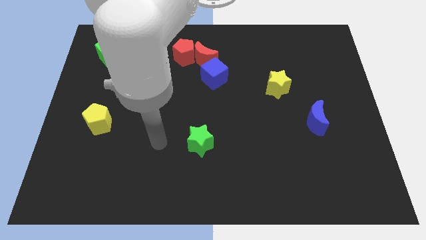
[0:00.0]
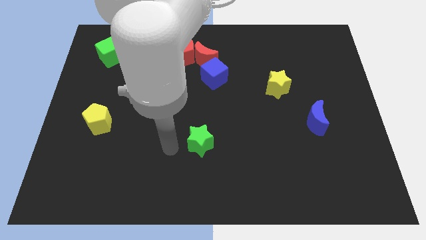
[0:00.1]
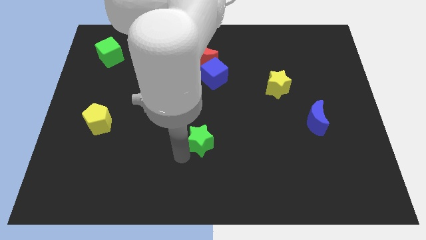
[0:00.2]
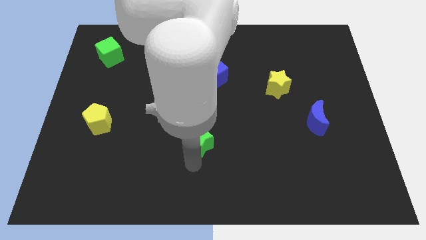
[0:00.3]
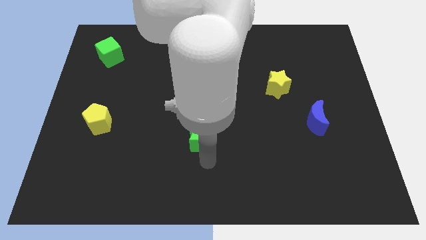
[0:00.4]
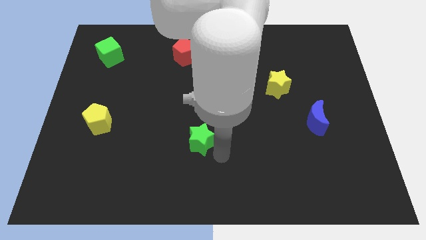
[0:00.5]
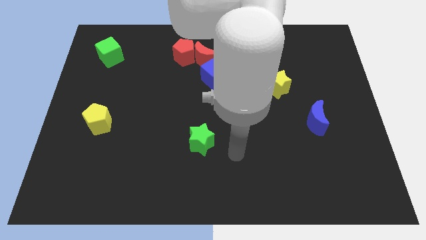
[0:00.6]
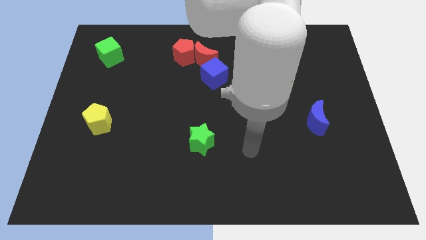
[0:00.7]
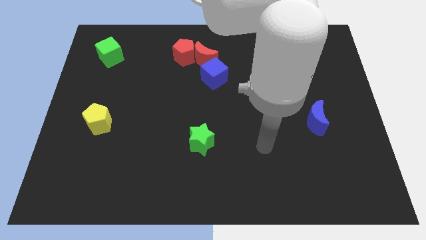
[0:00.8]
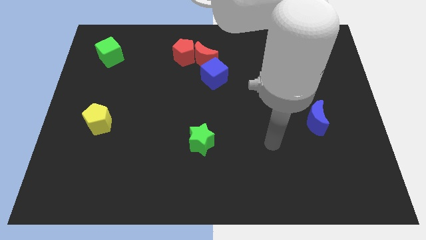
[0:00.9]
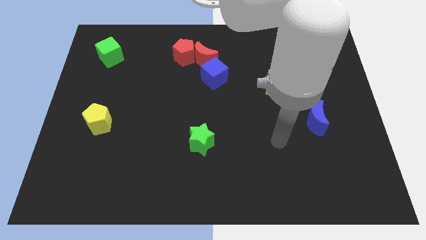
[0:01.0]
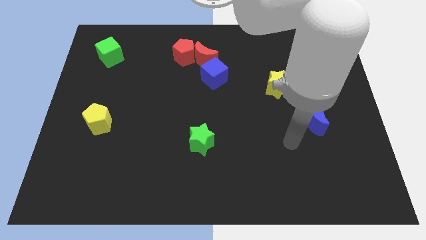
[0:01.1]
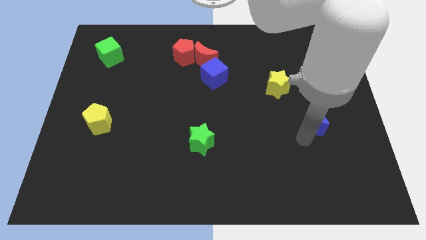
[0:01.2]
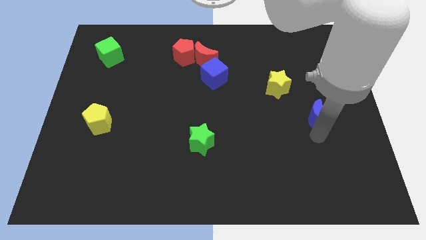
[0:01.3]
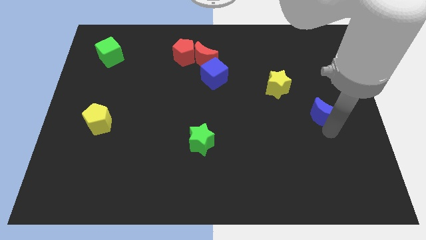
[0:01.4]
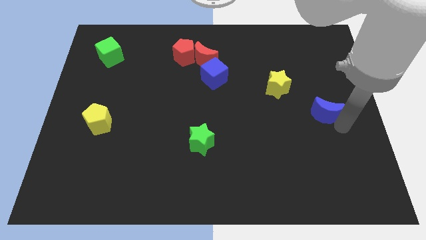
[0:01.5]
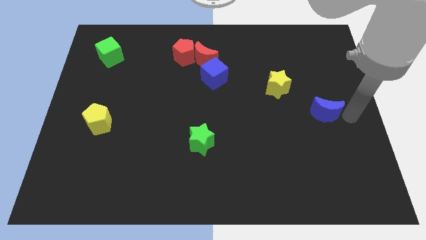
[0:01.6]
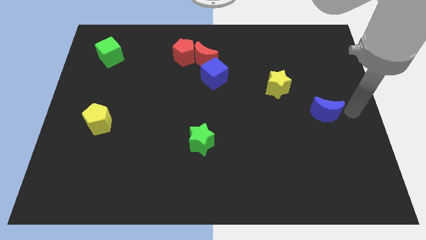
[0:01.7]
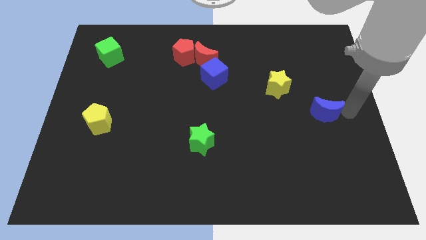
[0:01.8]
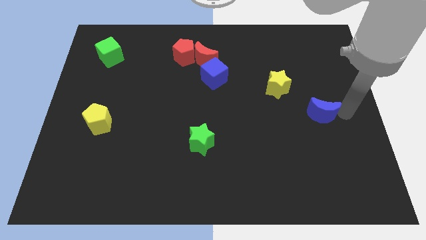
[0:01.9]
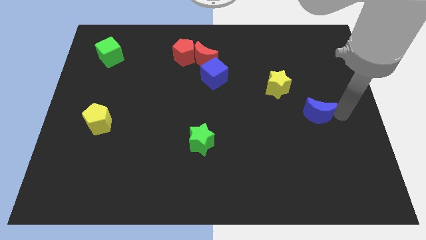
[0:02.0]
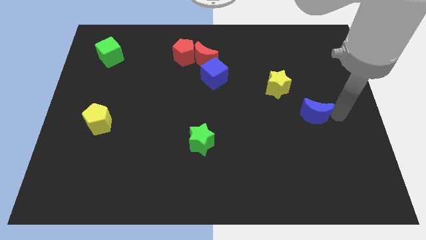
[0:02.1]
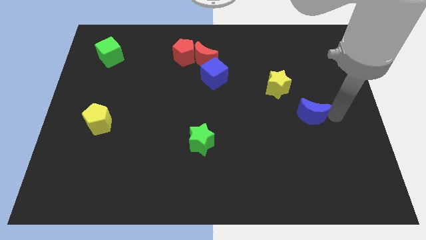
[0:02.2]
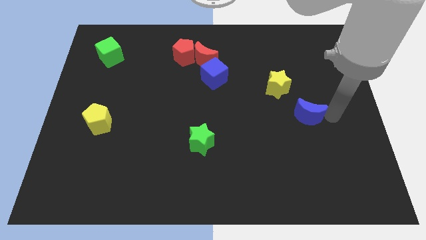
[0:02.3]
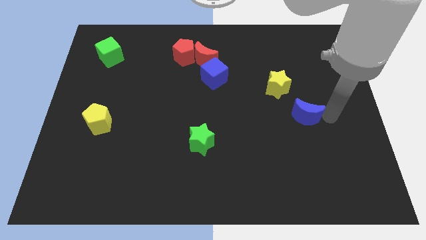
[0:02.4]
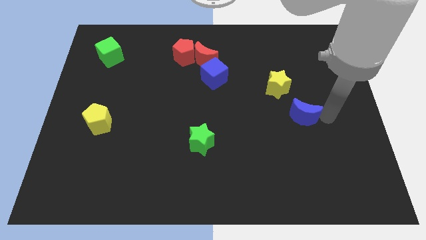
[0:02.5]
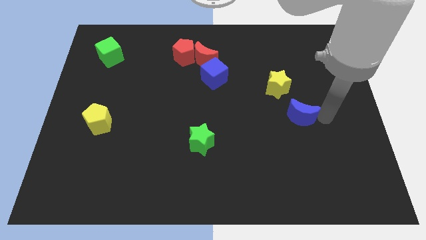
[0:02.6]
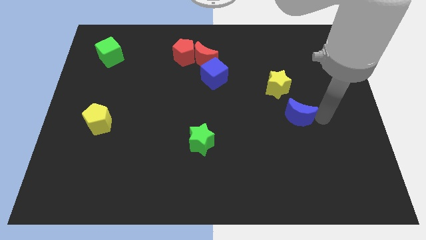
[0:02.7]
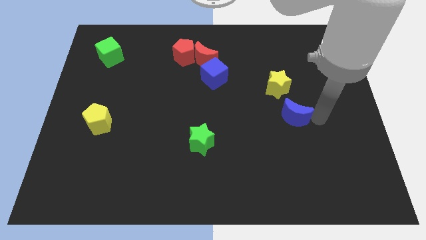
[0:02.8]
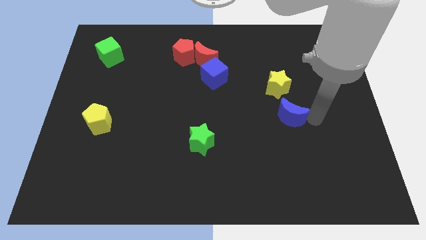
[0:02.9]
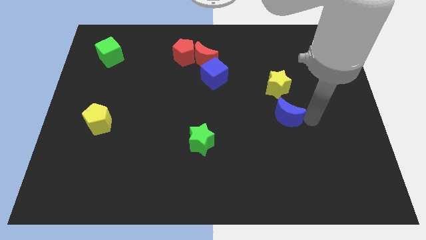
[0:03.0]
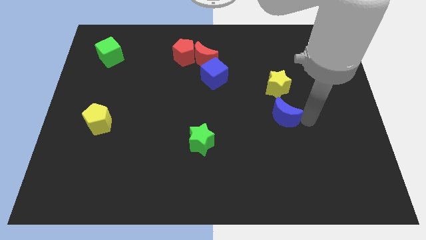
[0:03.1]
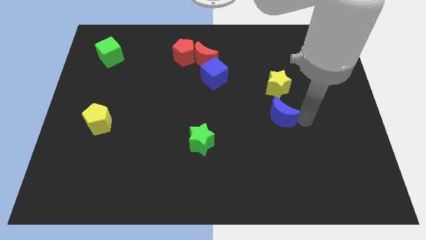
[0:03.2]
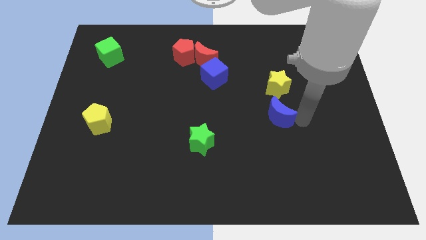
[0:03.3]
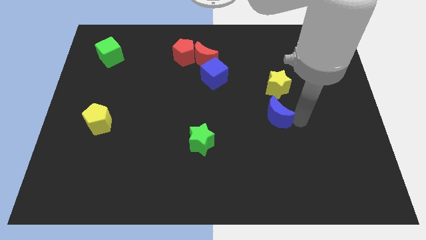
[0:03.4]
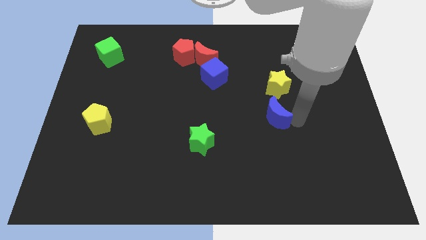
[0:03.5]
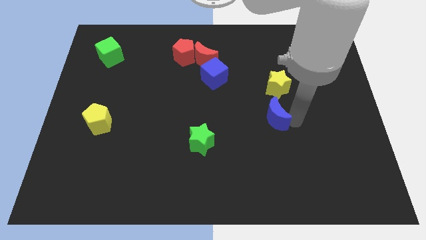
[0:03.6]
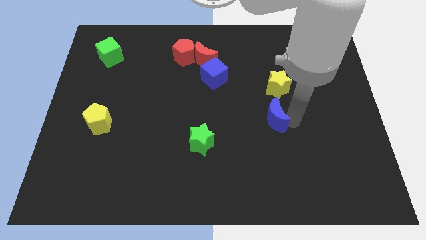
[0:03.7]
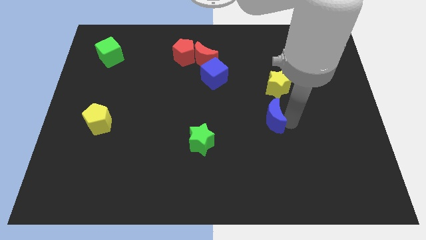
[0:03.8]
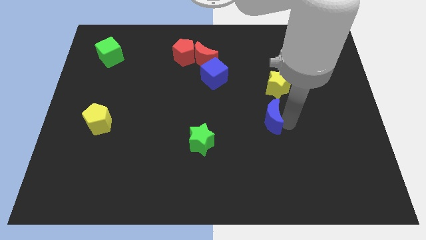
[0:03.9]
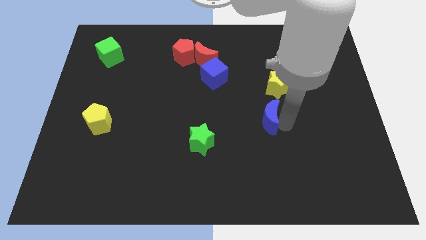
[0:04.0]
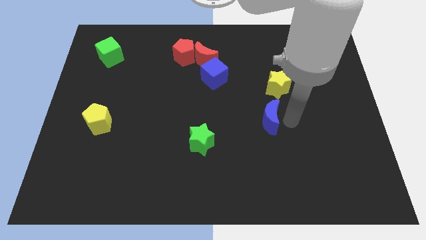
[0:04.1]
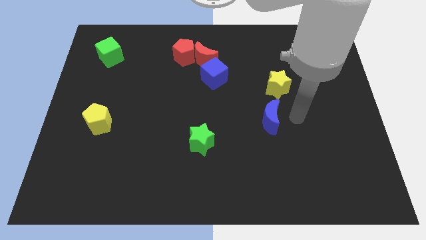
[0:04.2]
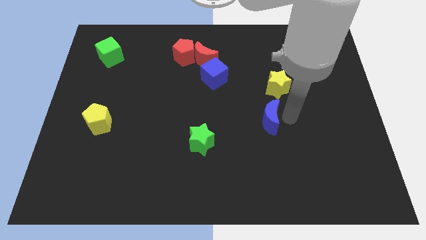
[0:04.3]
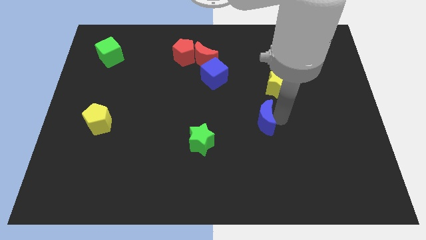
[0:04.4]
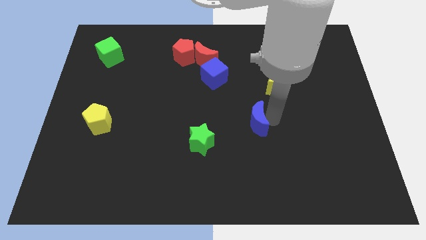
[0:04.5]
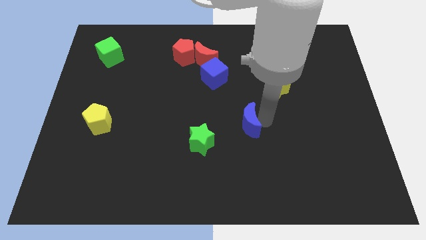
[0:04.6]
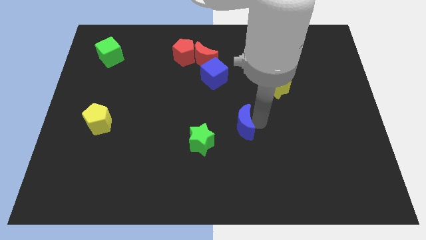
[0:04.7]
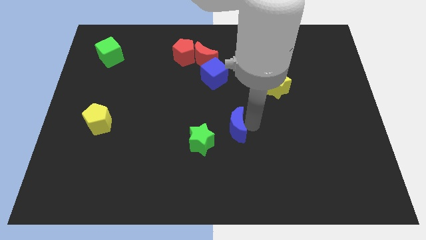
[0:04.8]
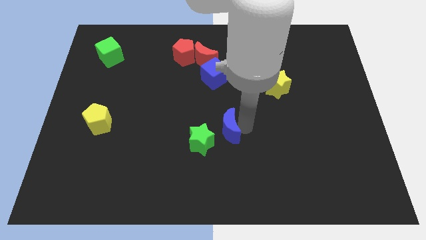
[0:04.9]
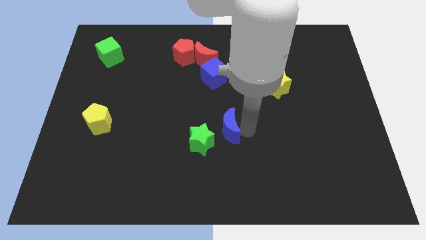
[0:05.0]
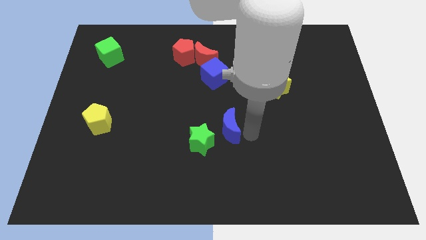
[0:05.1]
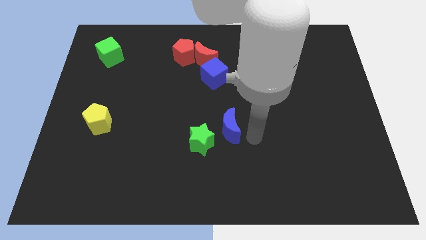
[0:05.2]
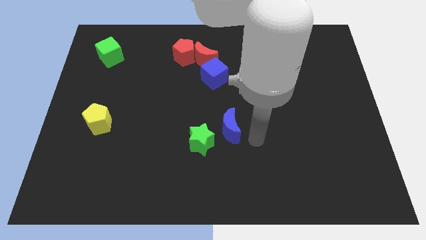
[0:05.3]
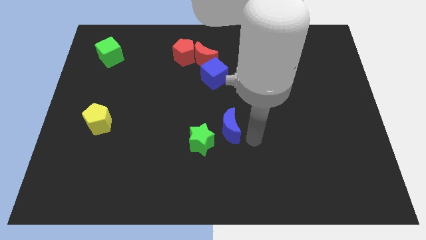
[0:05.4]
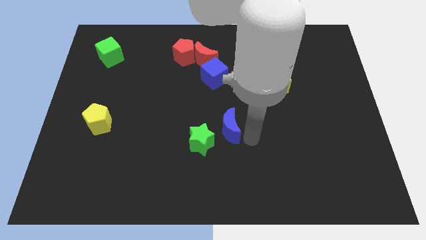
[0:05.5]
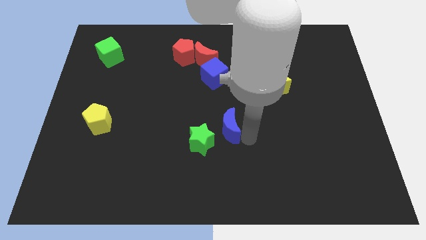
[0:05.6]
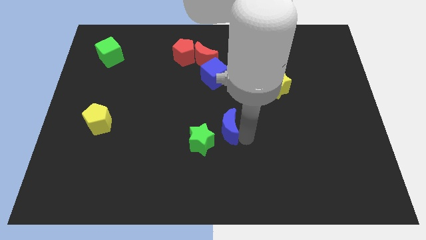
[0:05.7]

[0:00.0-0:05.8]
move the blue moon to the left

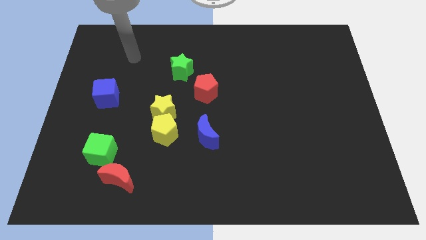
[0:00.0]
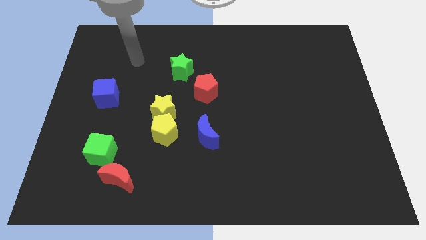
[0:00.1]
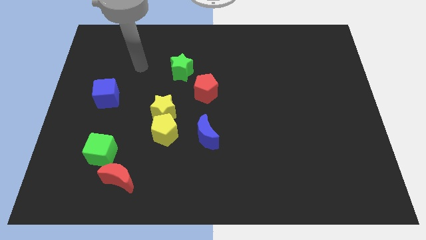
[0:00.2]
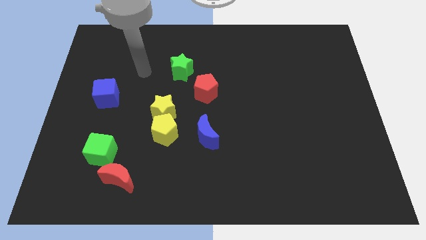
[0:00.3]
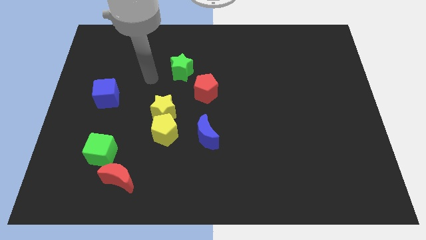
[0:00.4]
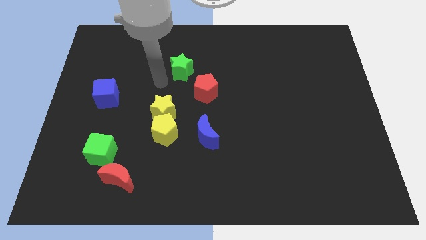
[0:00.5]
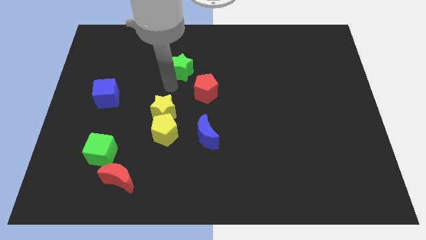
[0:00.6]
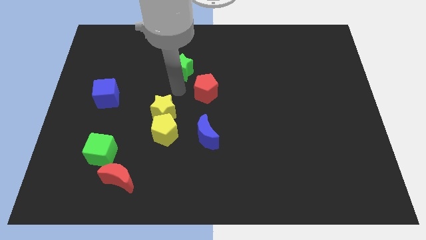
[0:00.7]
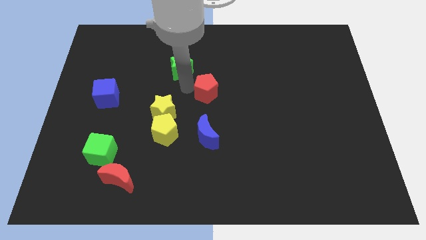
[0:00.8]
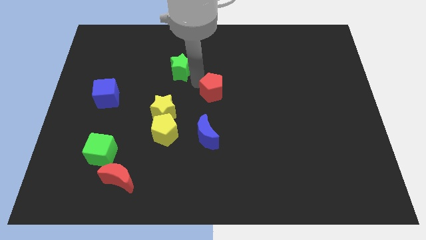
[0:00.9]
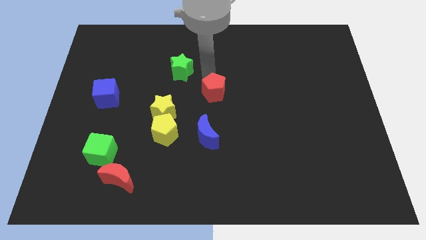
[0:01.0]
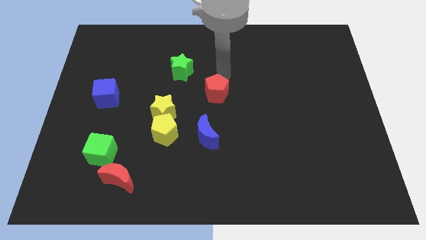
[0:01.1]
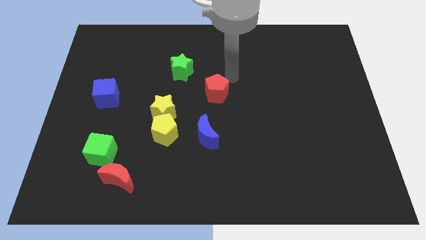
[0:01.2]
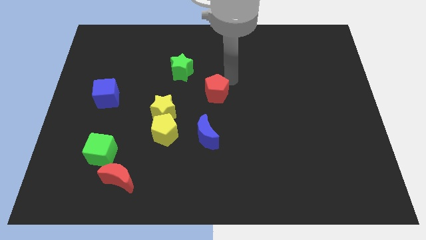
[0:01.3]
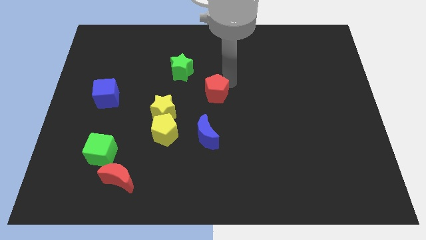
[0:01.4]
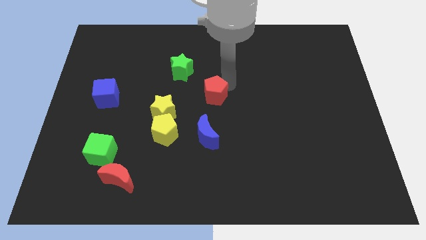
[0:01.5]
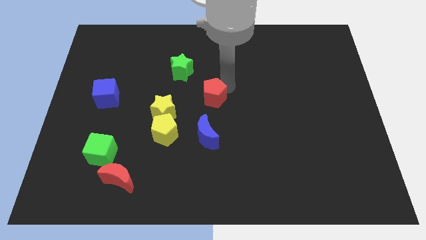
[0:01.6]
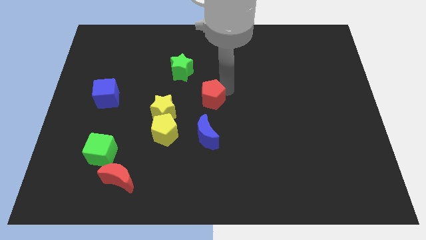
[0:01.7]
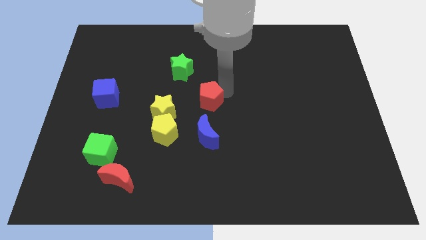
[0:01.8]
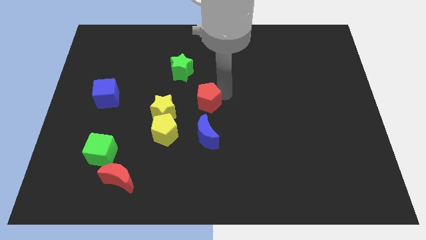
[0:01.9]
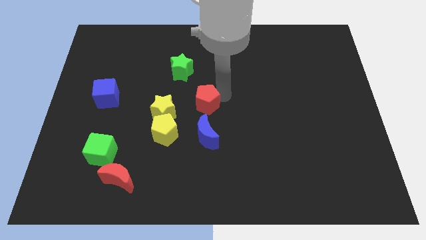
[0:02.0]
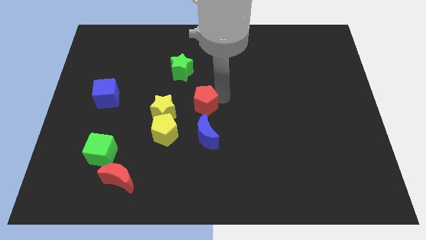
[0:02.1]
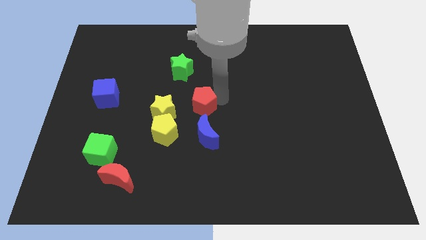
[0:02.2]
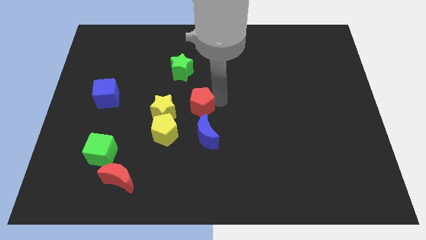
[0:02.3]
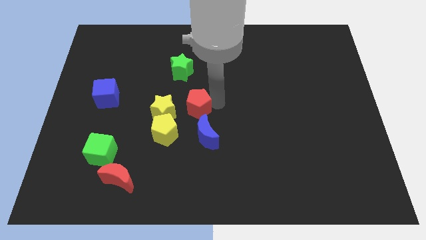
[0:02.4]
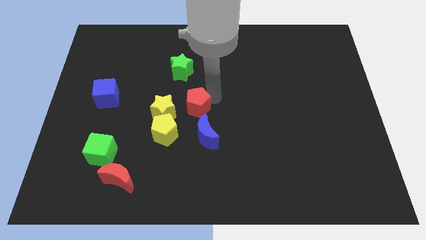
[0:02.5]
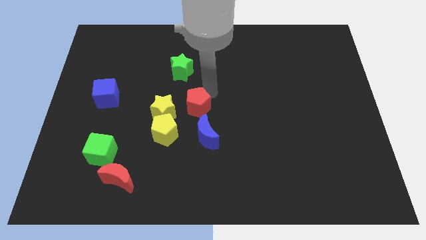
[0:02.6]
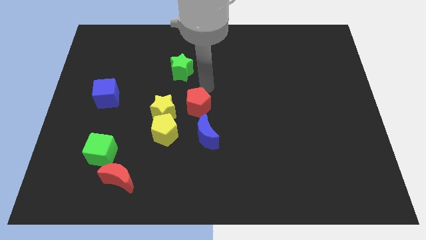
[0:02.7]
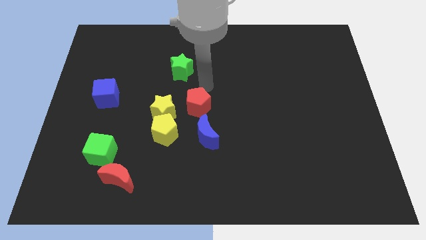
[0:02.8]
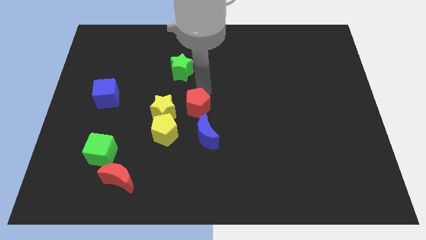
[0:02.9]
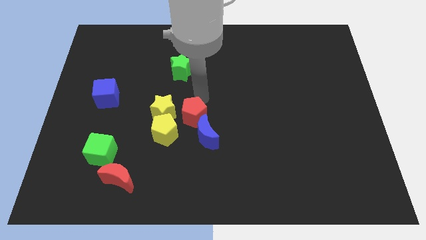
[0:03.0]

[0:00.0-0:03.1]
slightly move the red pentagon down
